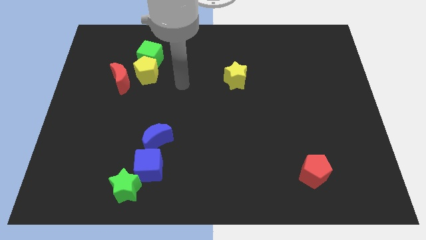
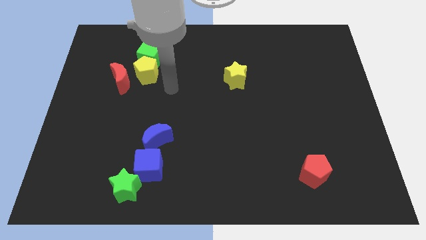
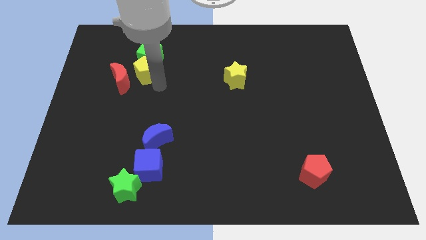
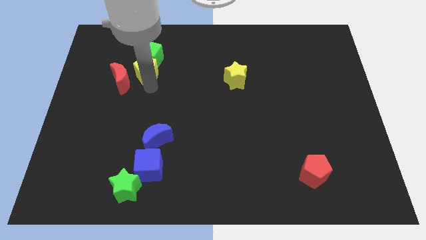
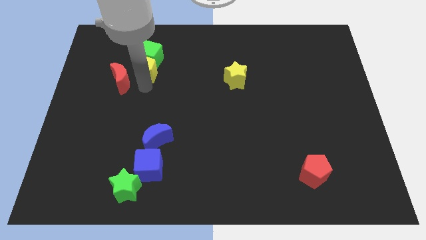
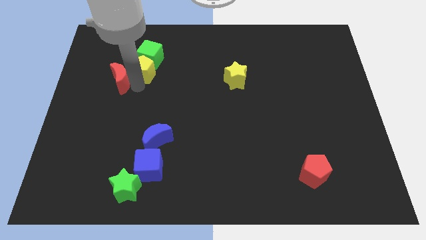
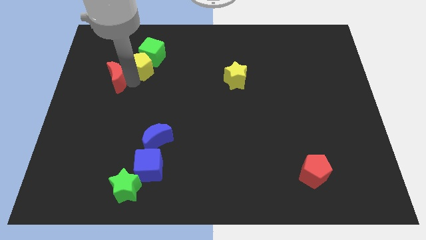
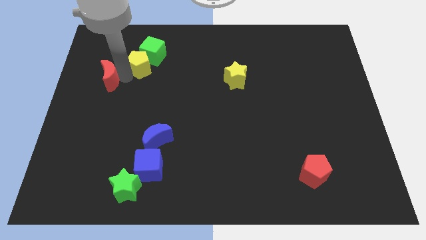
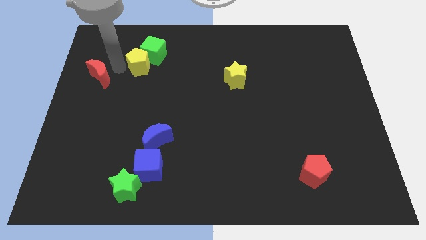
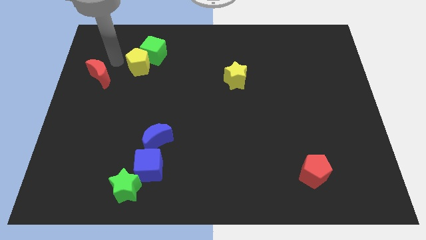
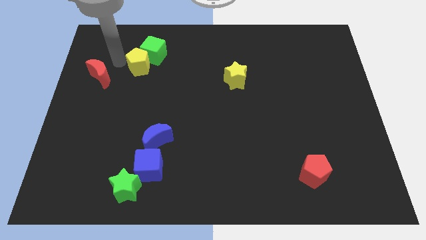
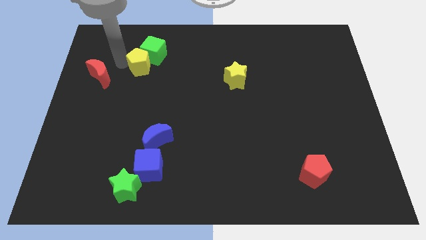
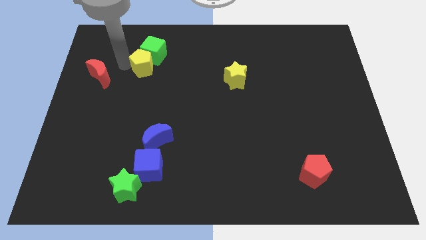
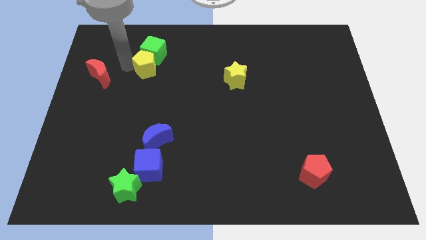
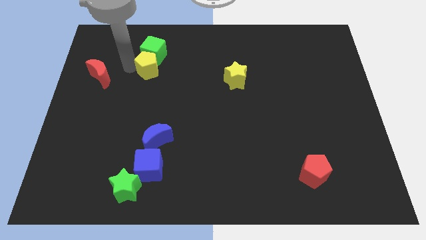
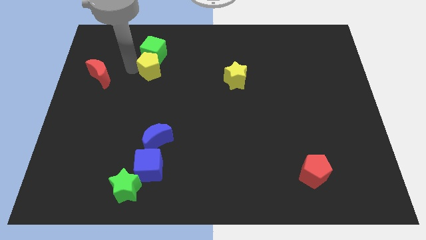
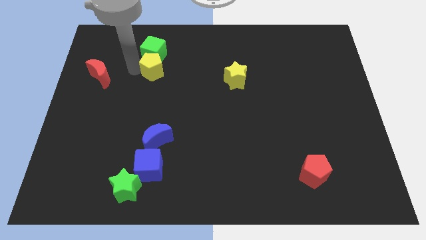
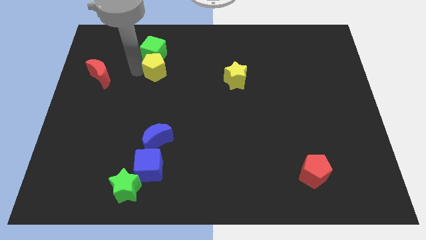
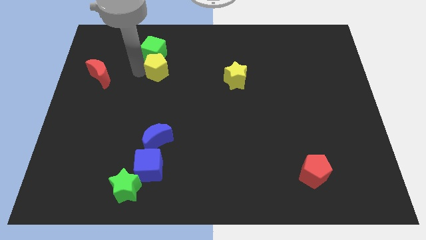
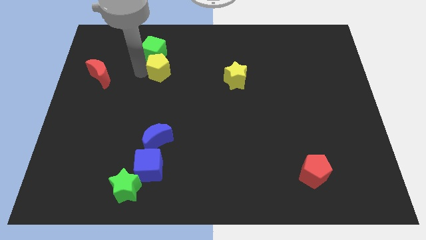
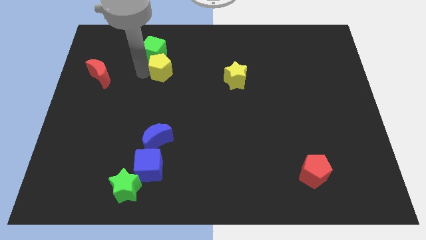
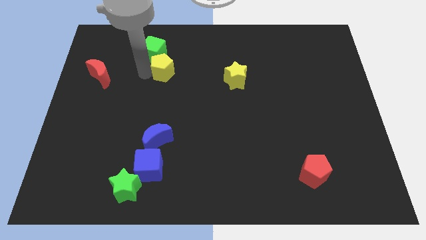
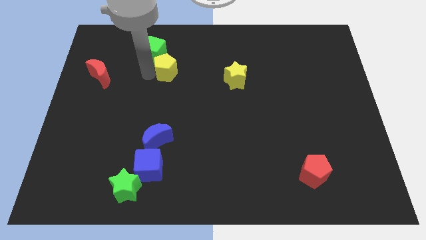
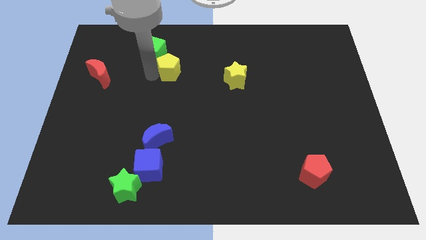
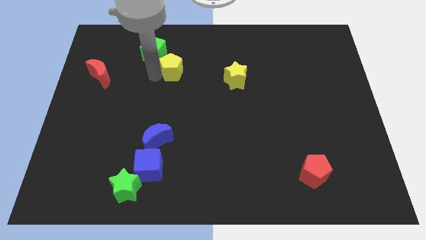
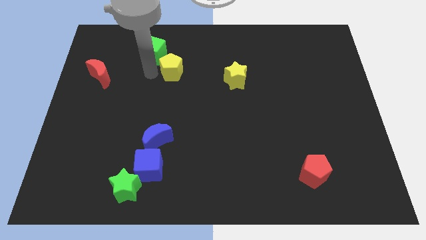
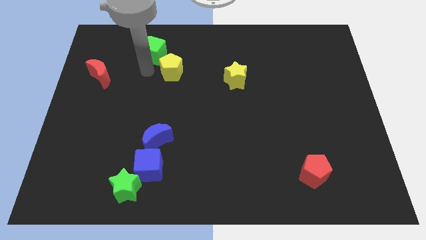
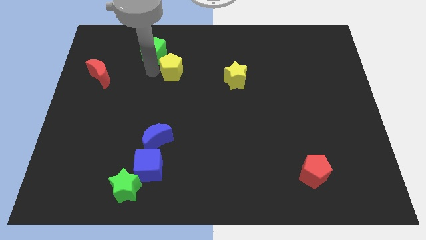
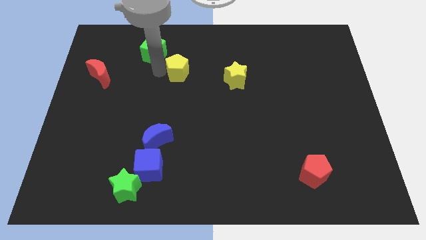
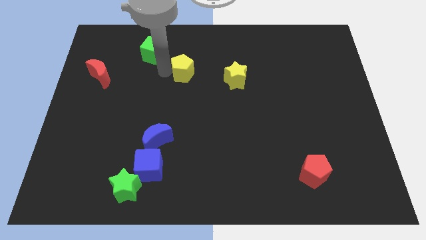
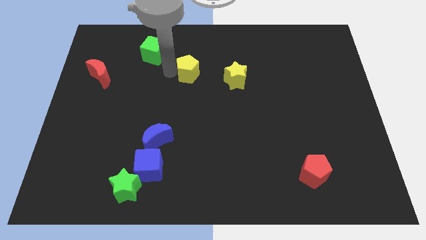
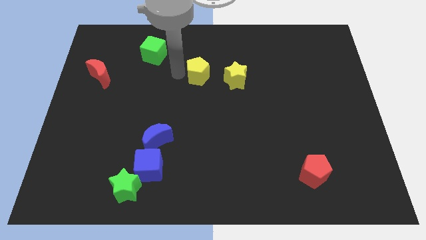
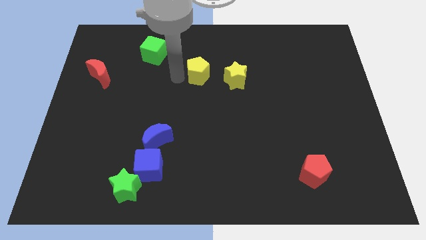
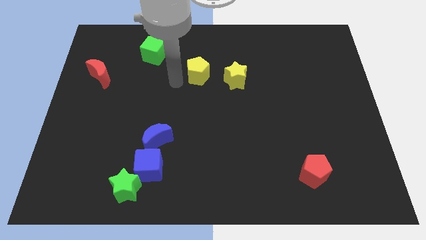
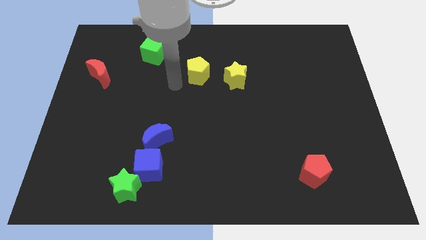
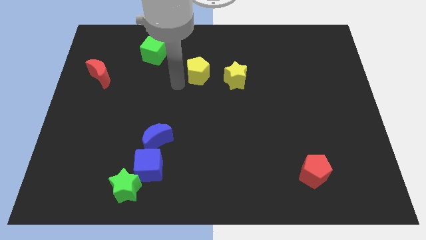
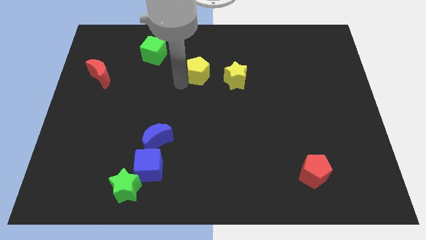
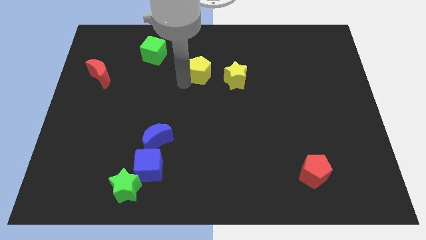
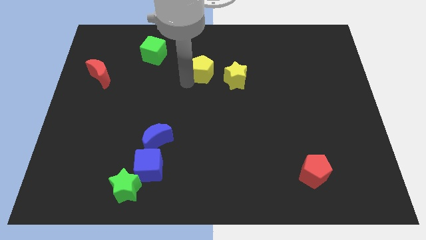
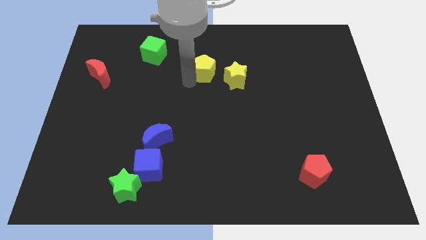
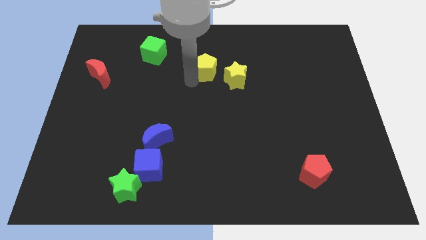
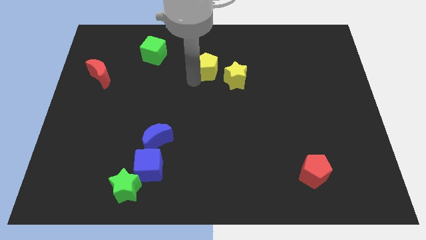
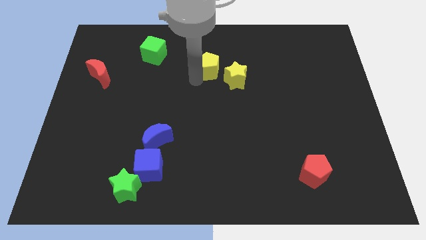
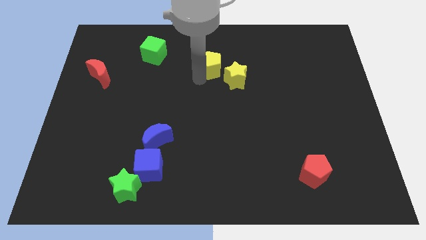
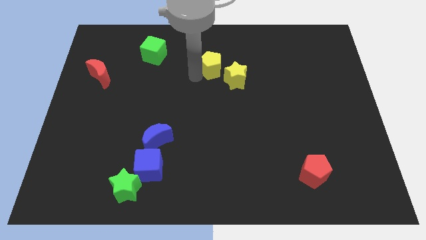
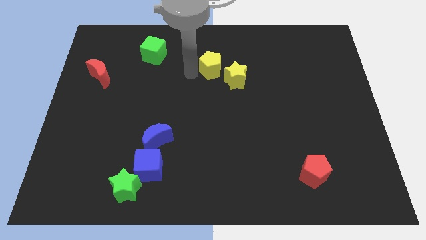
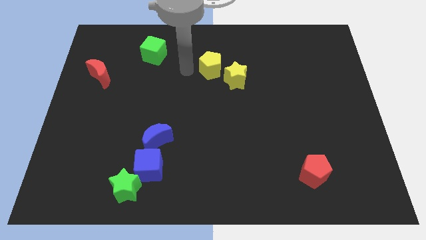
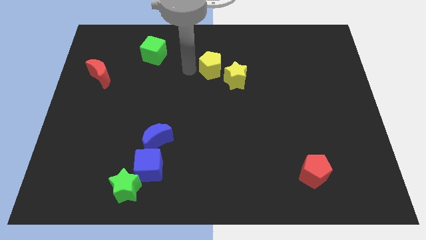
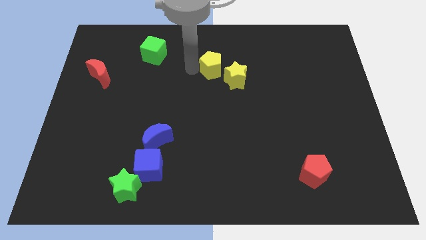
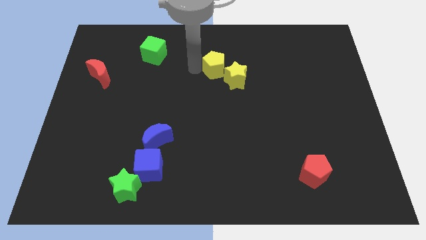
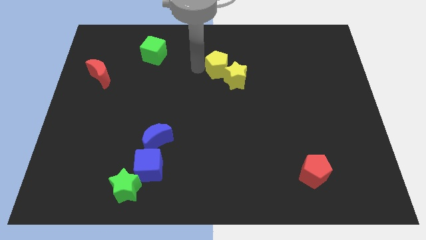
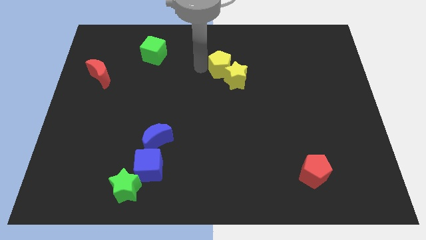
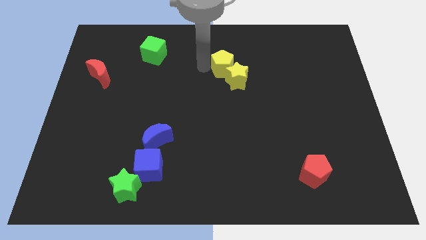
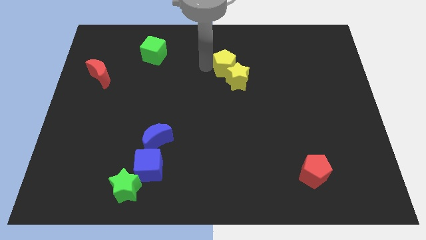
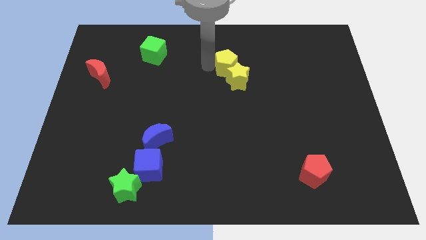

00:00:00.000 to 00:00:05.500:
push the yellow pentagon right

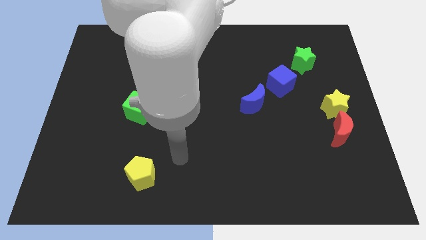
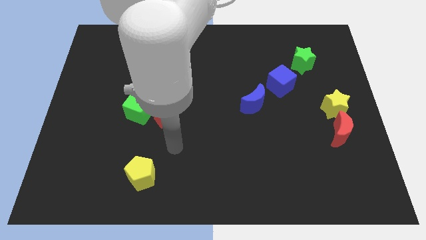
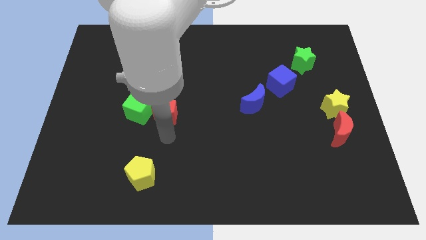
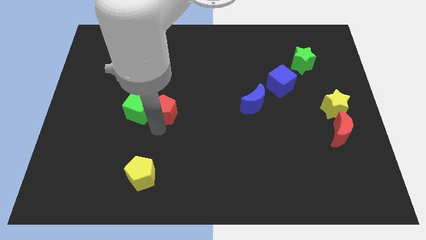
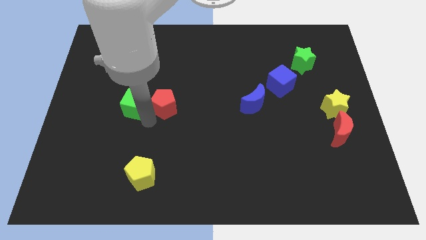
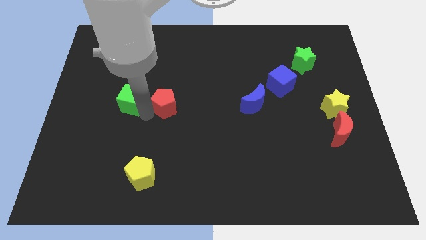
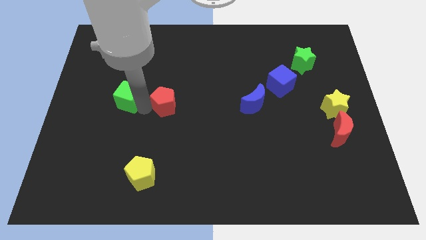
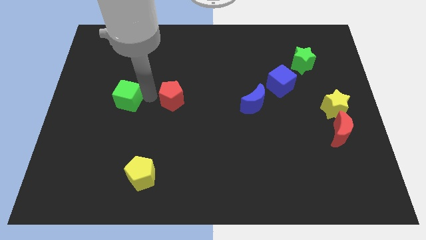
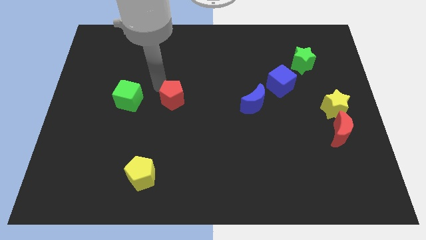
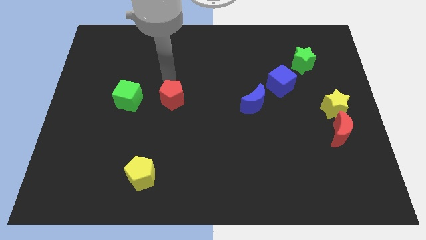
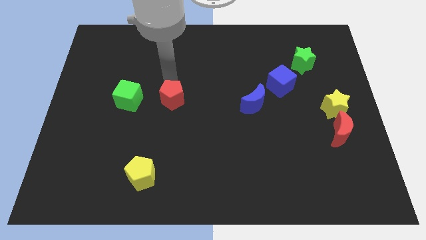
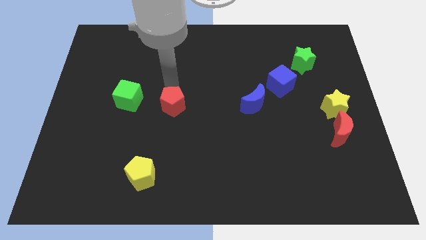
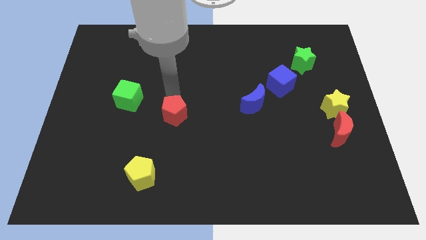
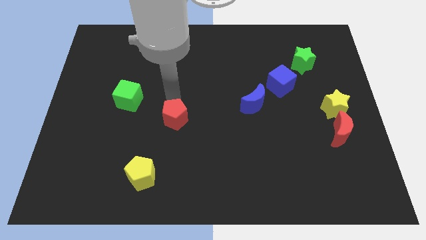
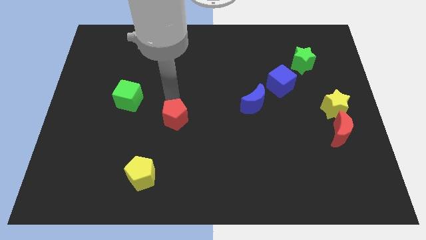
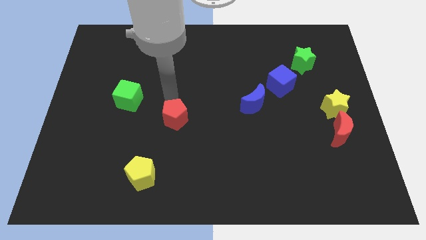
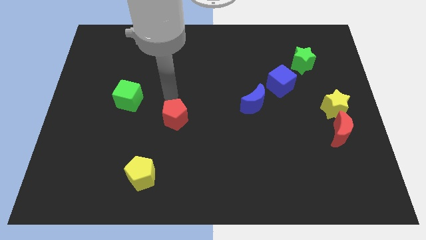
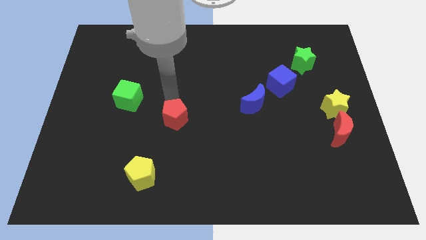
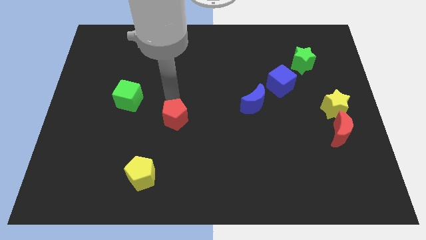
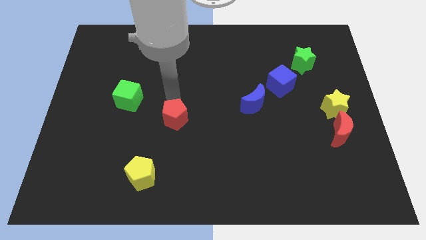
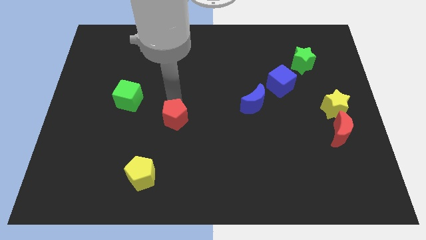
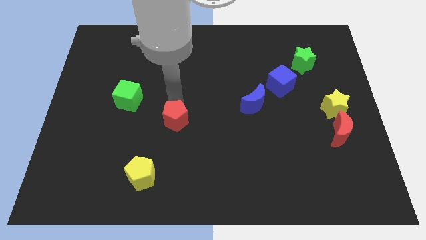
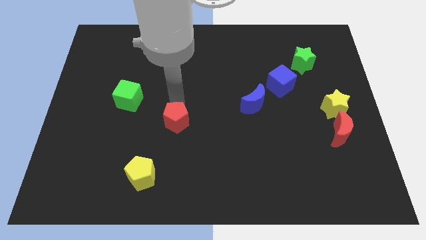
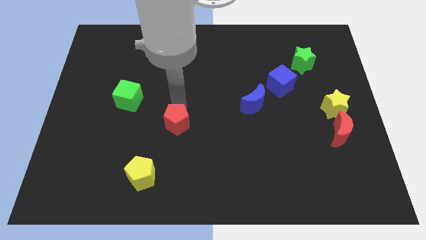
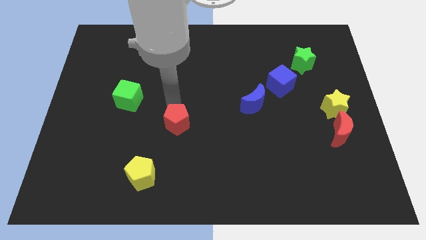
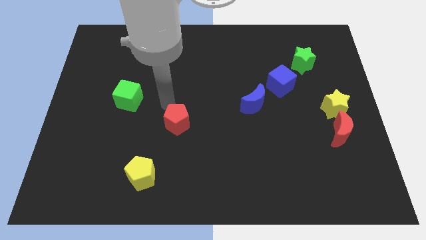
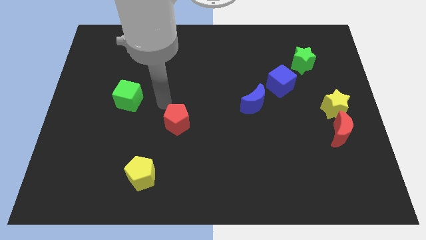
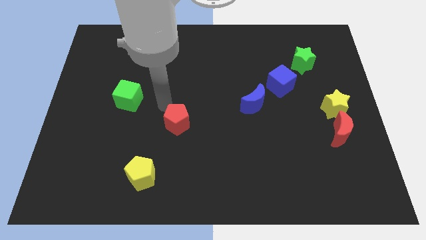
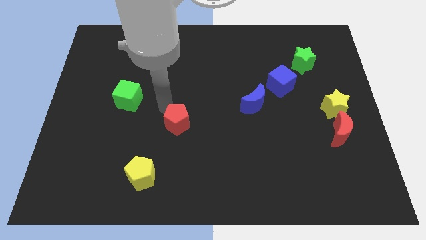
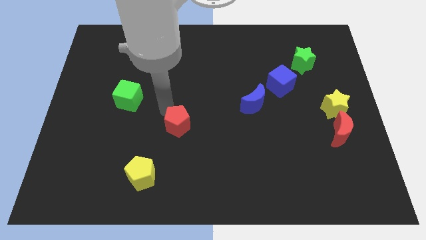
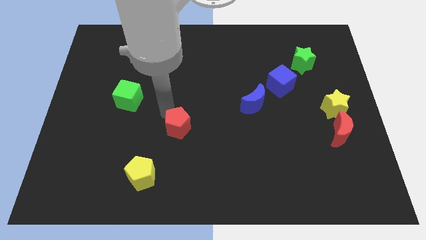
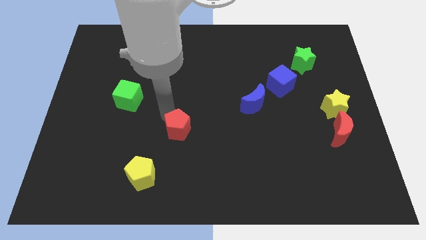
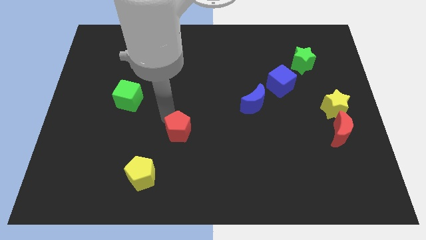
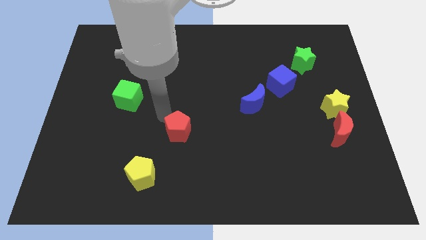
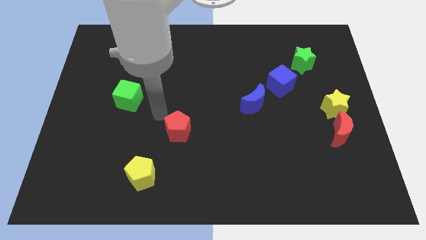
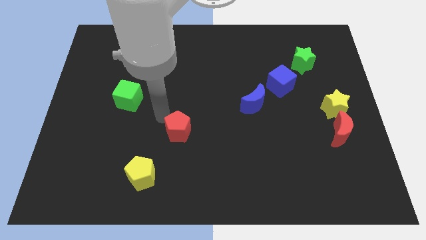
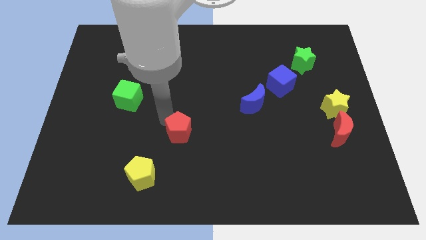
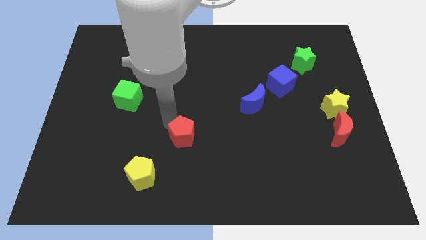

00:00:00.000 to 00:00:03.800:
slide the red pentagon downwards and then right a little bit
